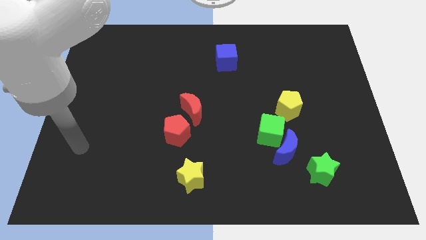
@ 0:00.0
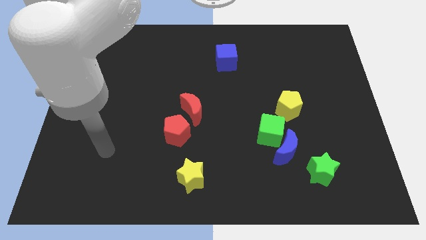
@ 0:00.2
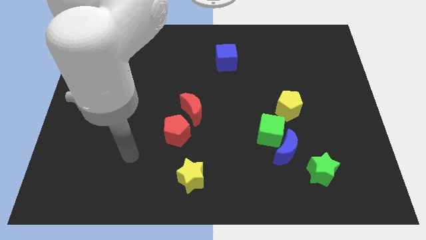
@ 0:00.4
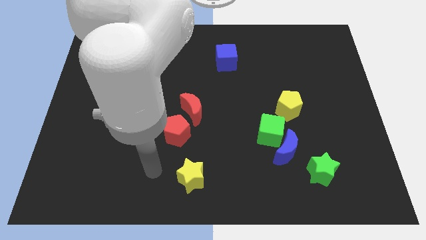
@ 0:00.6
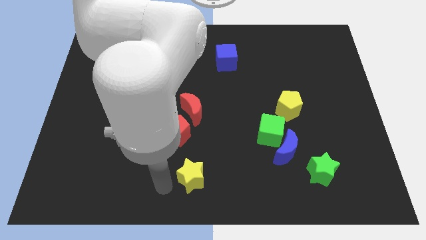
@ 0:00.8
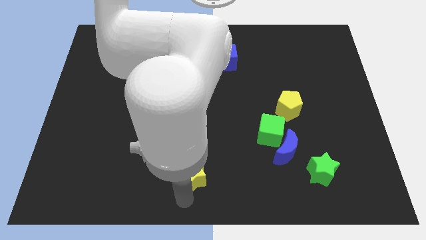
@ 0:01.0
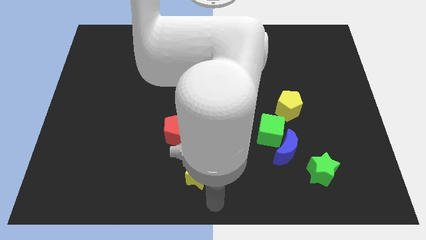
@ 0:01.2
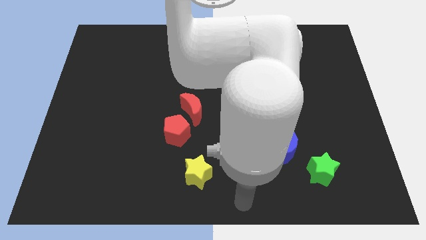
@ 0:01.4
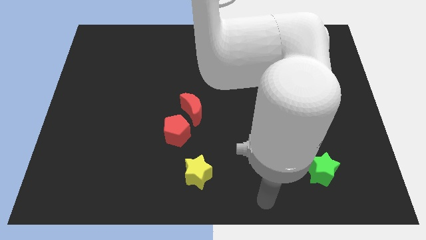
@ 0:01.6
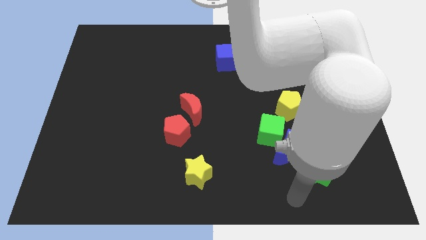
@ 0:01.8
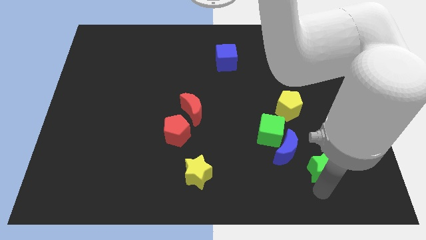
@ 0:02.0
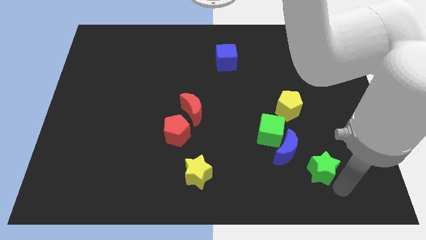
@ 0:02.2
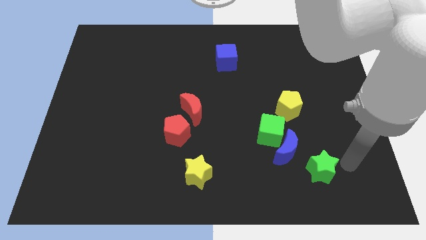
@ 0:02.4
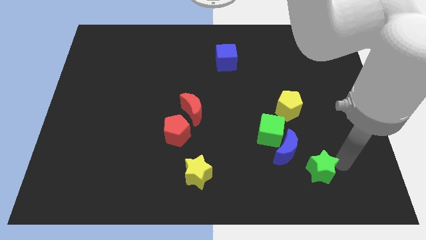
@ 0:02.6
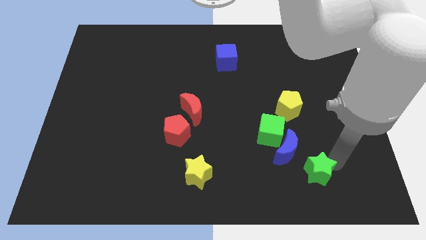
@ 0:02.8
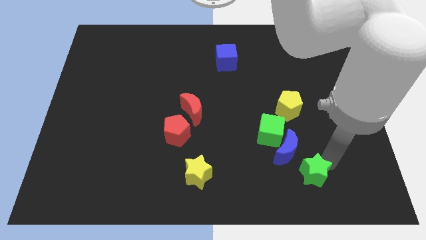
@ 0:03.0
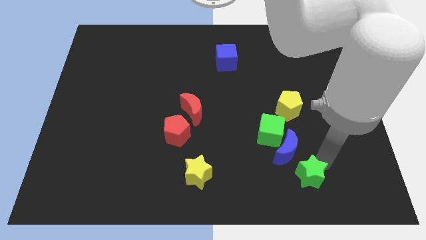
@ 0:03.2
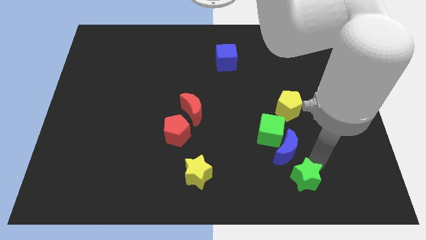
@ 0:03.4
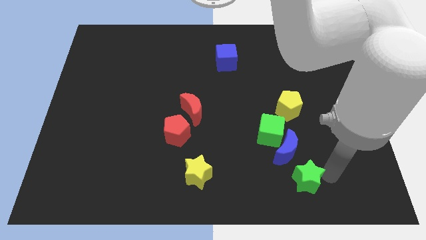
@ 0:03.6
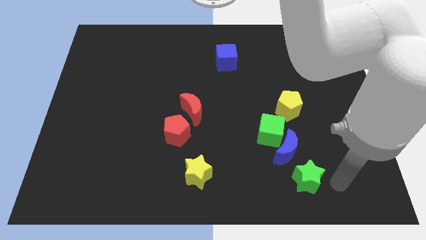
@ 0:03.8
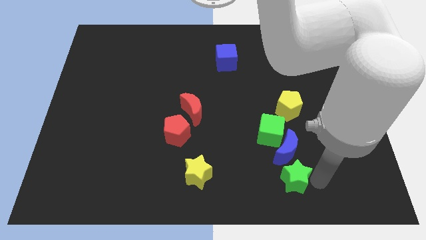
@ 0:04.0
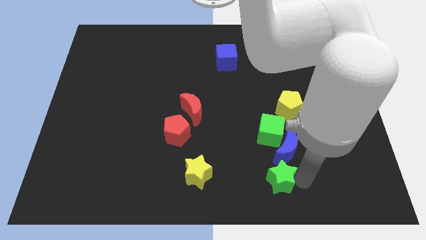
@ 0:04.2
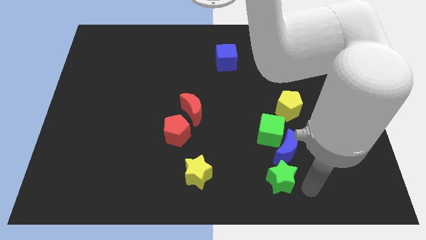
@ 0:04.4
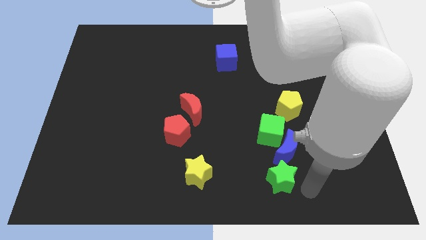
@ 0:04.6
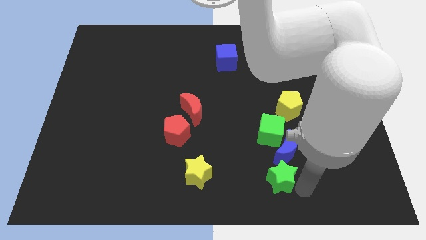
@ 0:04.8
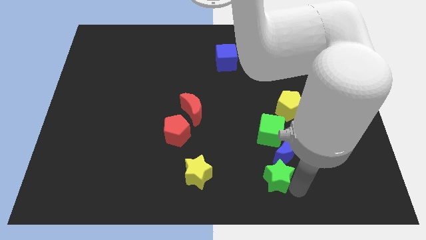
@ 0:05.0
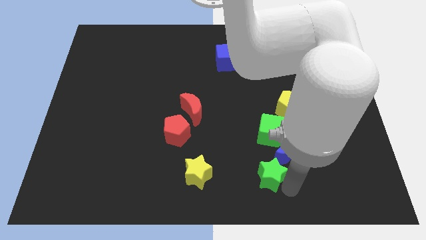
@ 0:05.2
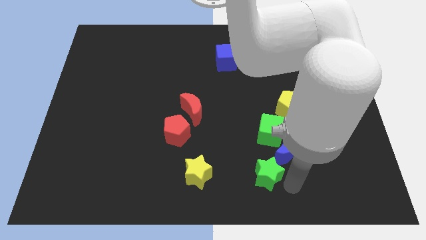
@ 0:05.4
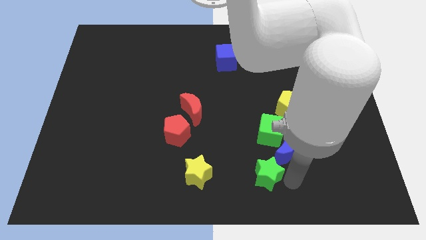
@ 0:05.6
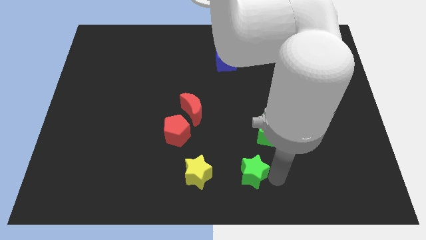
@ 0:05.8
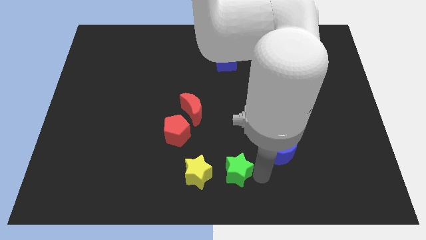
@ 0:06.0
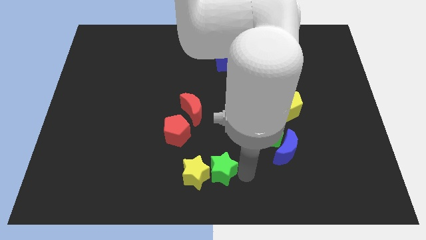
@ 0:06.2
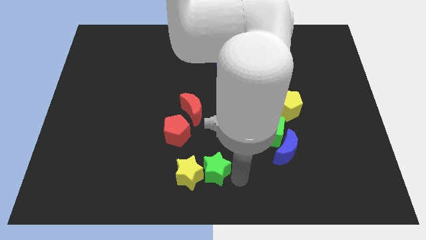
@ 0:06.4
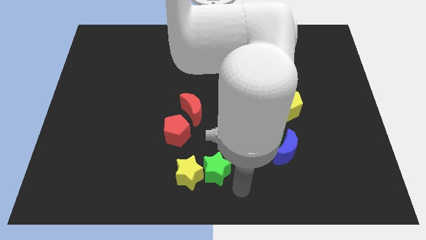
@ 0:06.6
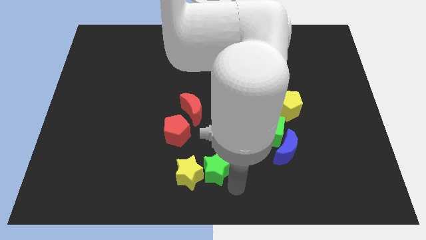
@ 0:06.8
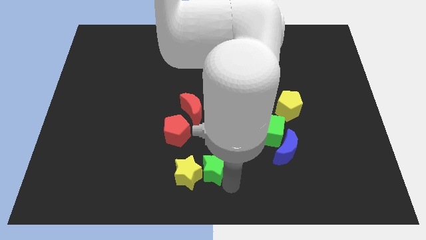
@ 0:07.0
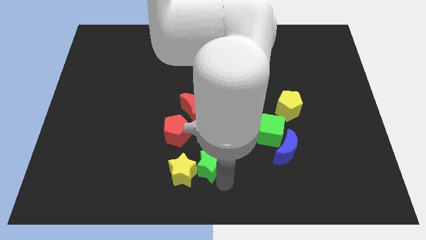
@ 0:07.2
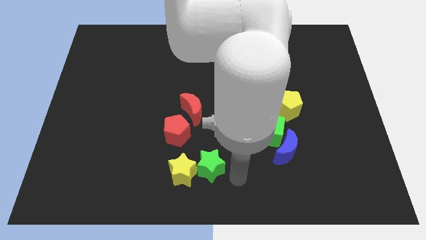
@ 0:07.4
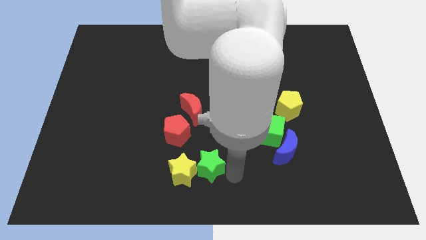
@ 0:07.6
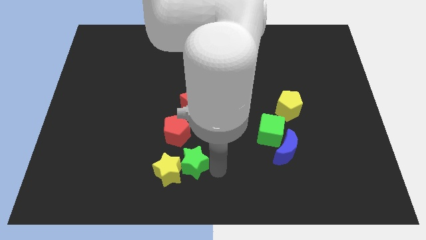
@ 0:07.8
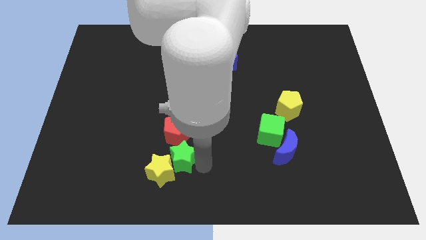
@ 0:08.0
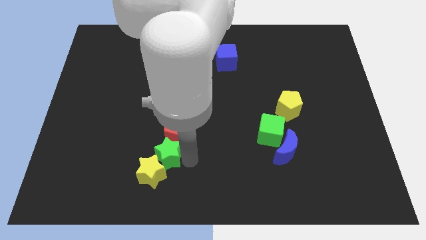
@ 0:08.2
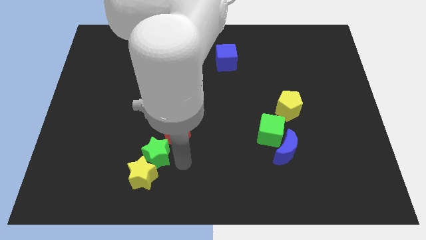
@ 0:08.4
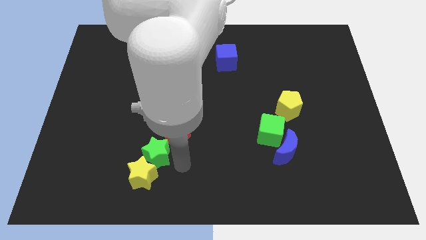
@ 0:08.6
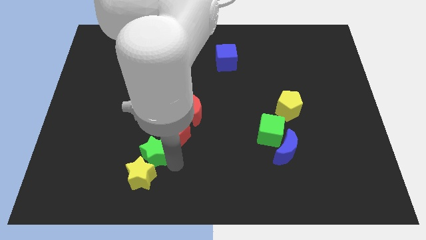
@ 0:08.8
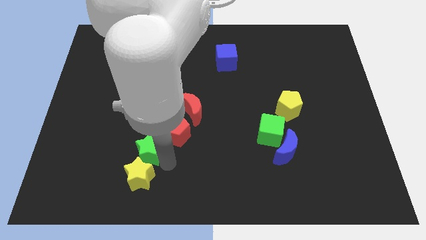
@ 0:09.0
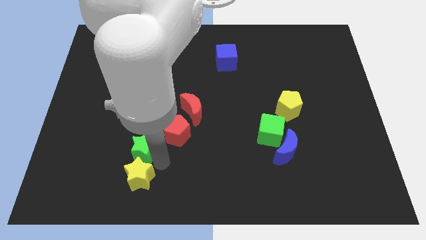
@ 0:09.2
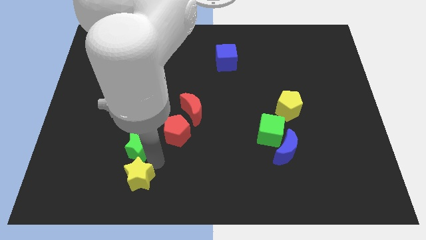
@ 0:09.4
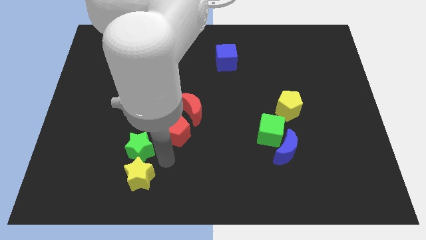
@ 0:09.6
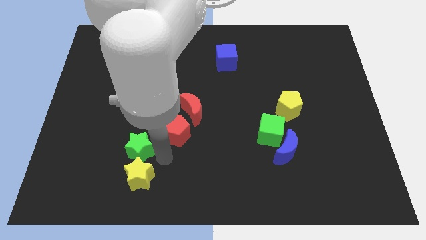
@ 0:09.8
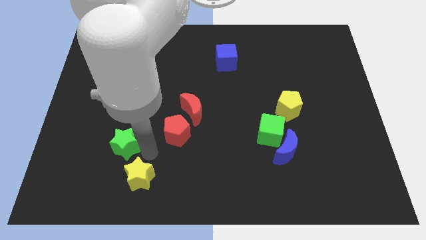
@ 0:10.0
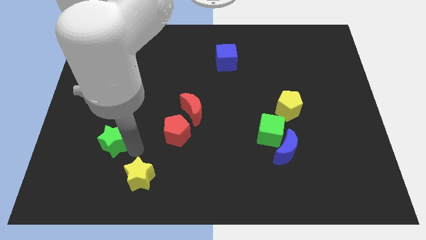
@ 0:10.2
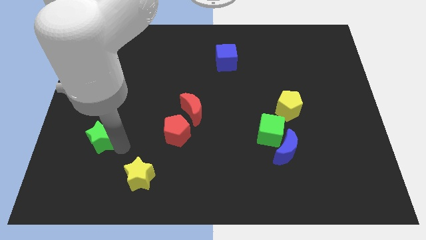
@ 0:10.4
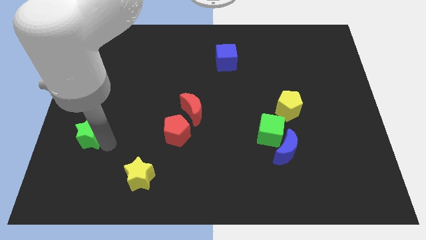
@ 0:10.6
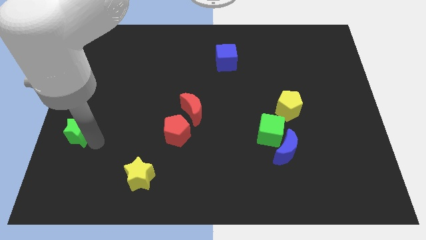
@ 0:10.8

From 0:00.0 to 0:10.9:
push the green star to the center left

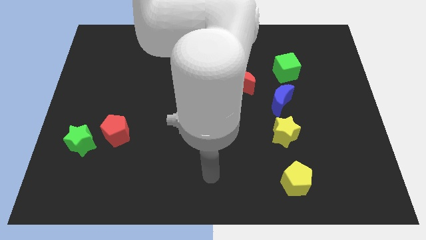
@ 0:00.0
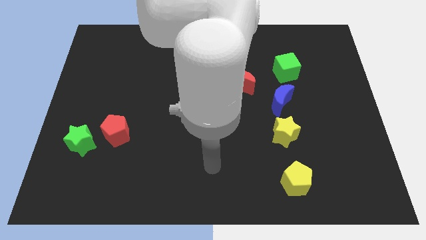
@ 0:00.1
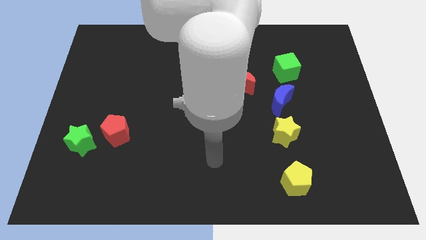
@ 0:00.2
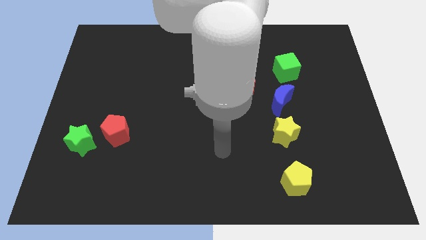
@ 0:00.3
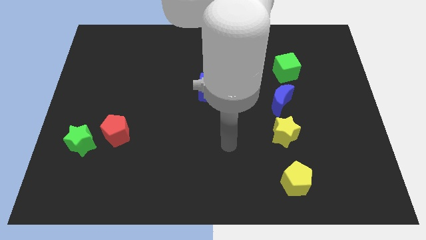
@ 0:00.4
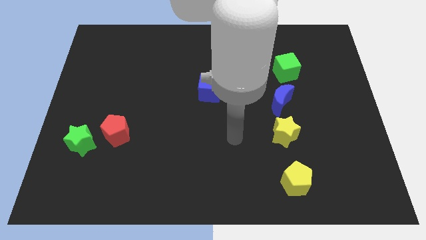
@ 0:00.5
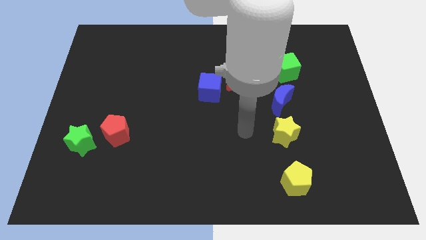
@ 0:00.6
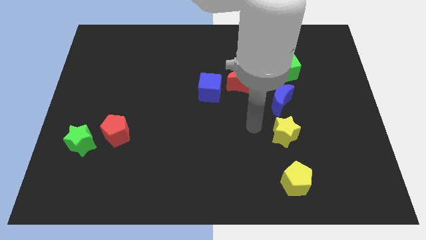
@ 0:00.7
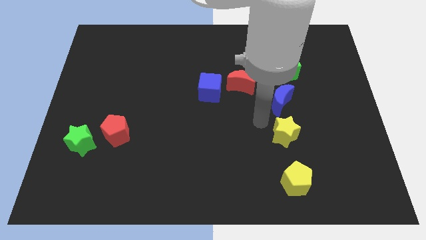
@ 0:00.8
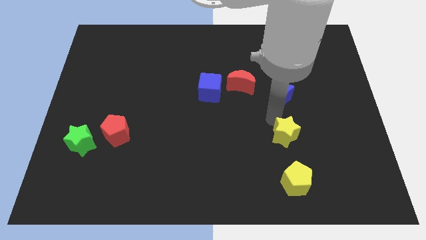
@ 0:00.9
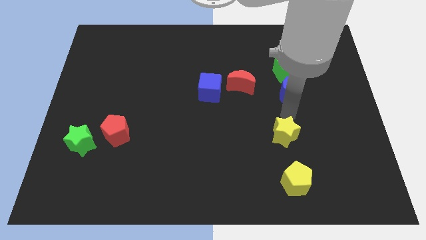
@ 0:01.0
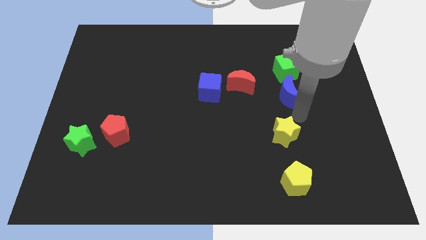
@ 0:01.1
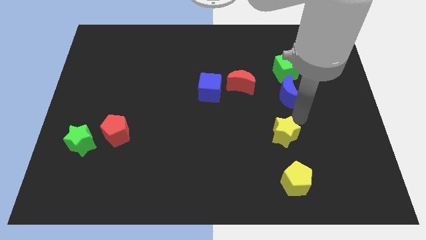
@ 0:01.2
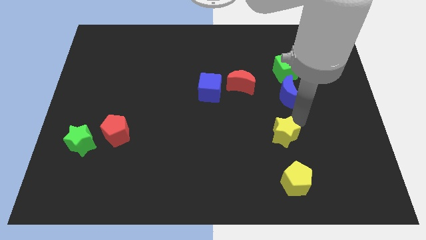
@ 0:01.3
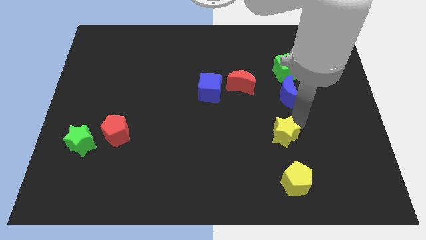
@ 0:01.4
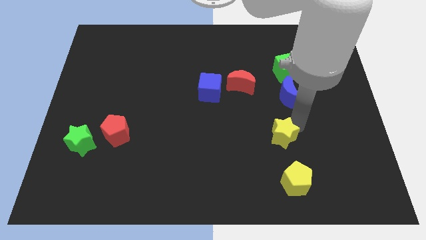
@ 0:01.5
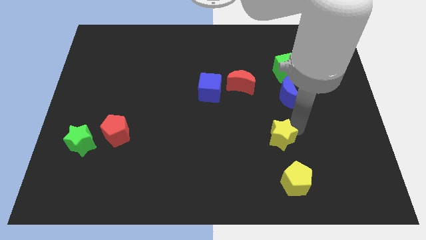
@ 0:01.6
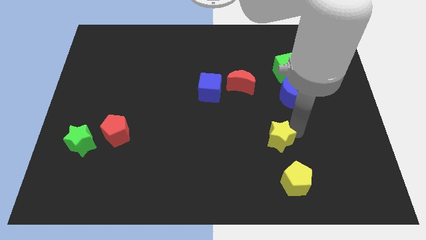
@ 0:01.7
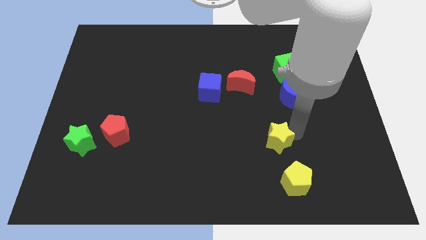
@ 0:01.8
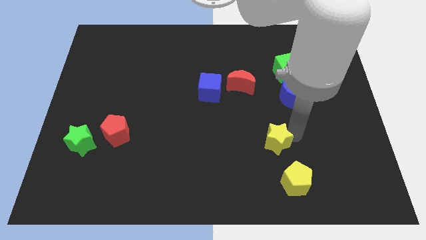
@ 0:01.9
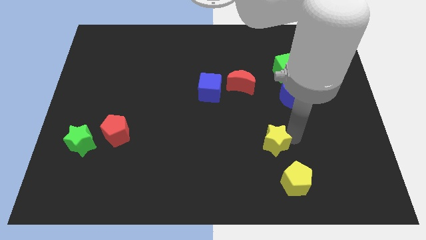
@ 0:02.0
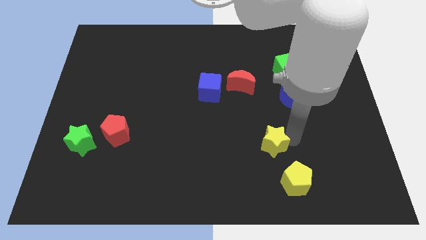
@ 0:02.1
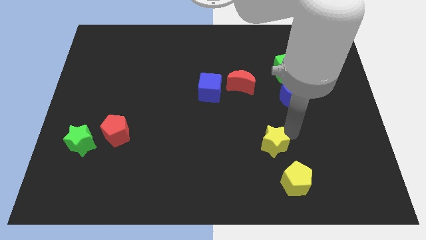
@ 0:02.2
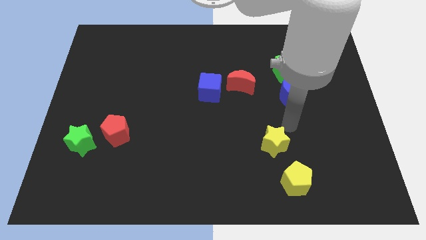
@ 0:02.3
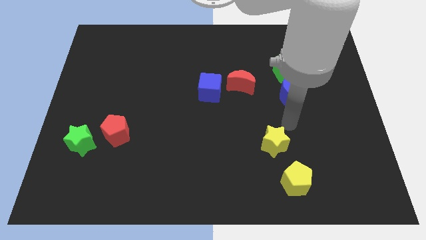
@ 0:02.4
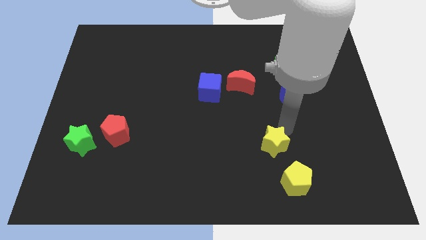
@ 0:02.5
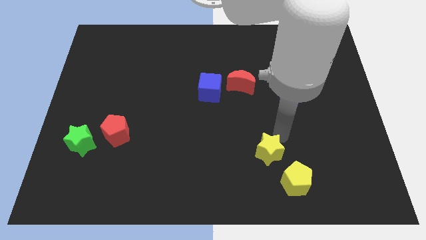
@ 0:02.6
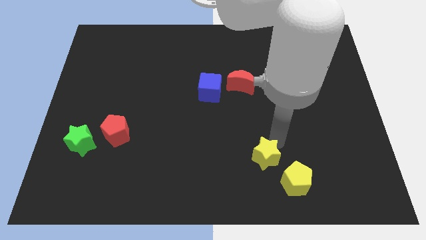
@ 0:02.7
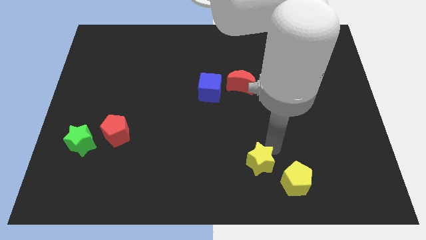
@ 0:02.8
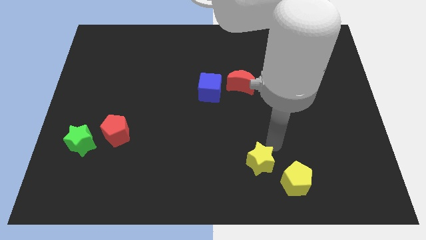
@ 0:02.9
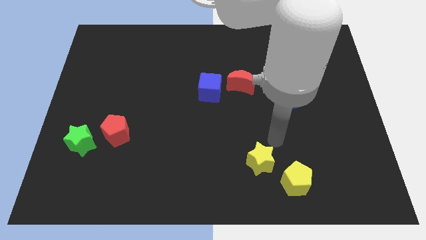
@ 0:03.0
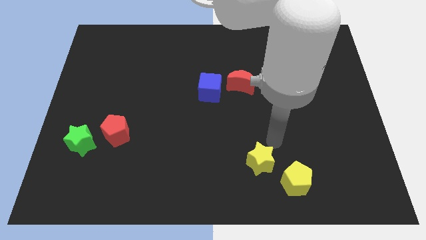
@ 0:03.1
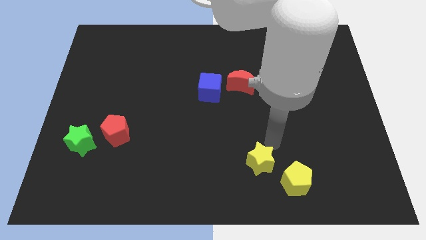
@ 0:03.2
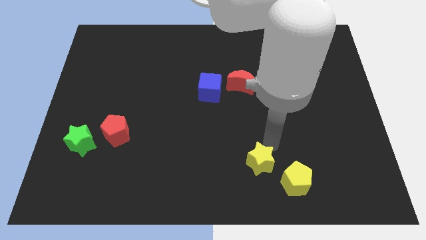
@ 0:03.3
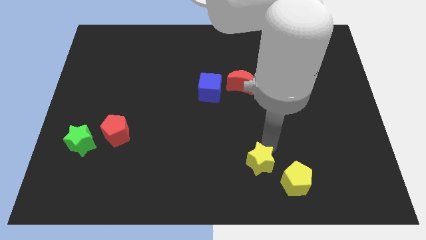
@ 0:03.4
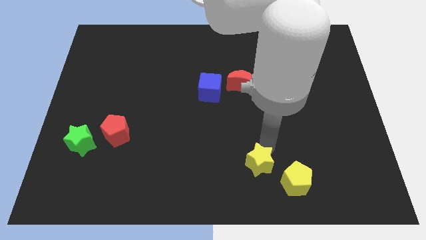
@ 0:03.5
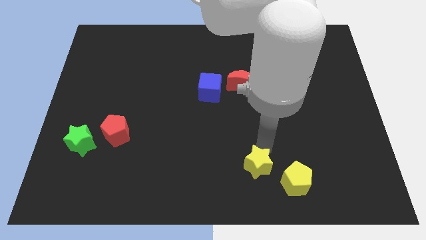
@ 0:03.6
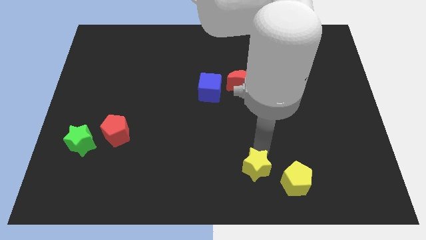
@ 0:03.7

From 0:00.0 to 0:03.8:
push the yellow star to the bottom side
